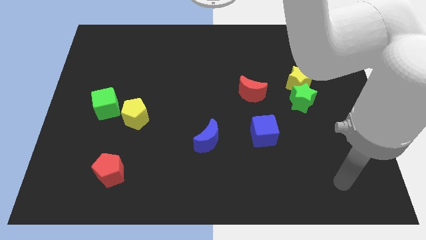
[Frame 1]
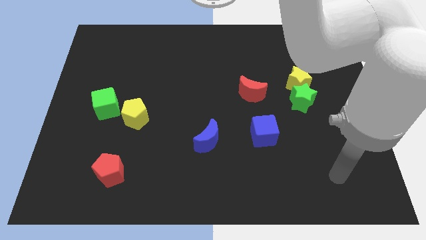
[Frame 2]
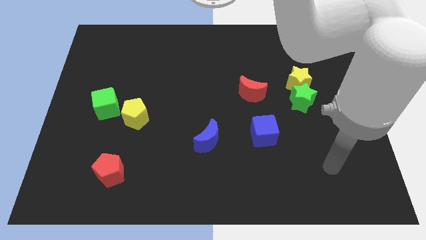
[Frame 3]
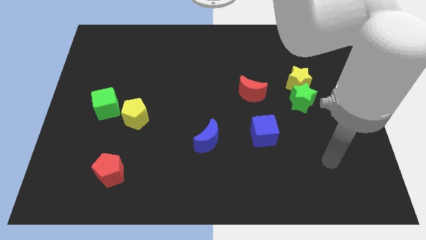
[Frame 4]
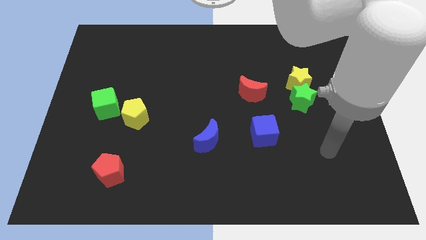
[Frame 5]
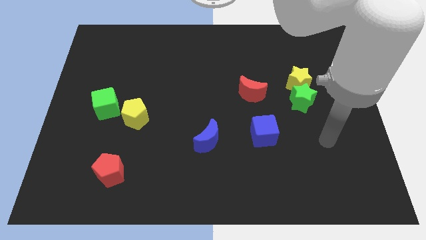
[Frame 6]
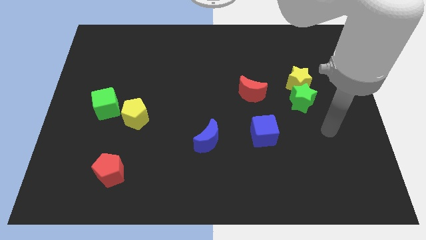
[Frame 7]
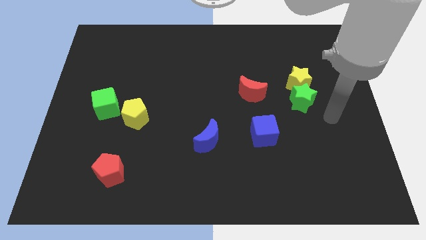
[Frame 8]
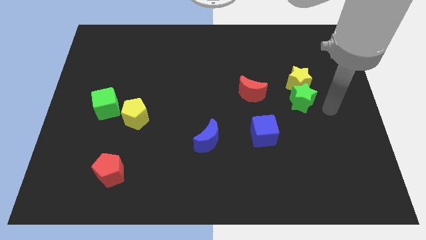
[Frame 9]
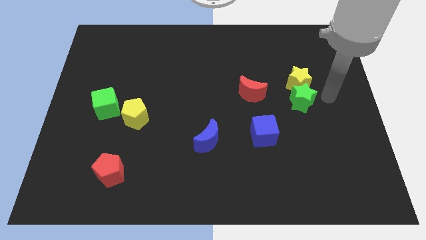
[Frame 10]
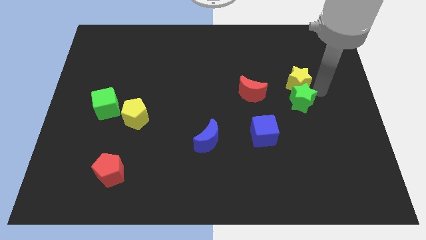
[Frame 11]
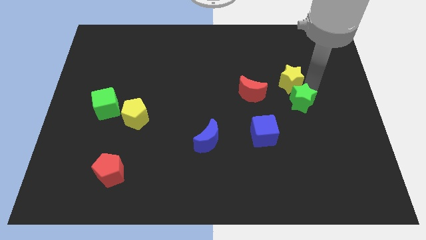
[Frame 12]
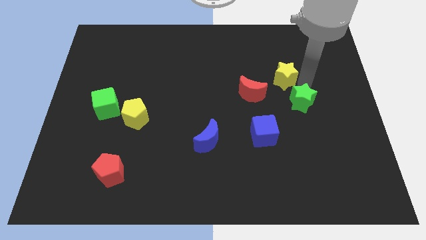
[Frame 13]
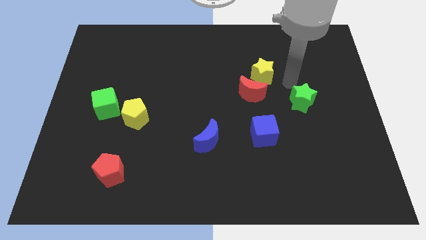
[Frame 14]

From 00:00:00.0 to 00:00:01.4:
move the green star away from the yellow star

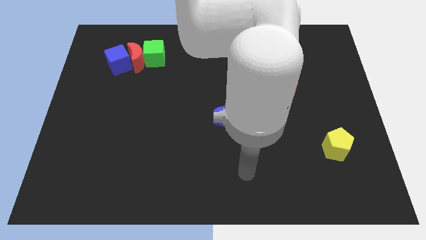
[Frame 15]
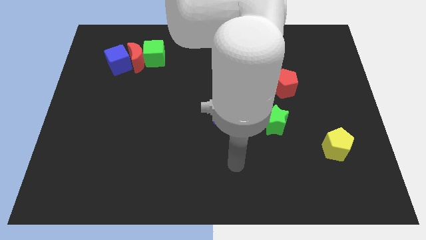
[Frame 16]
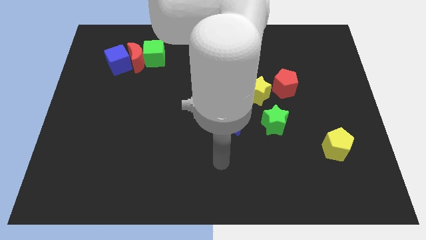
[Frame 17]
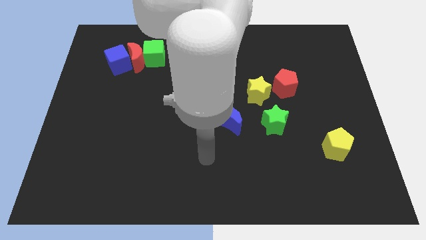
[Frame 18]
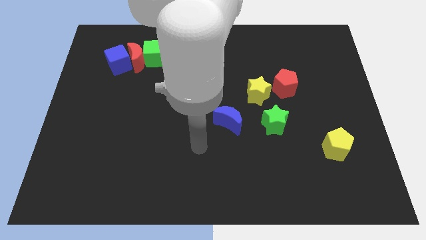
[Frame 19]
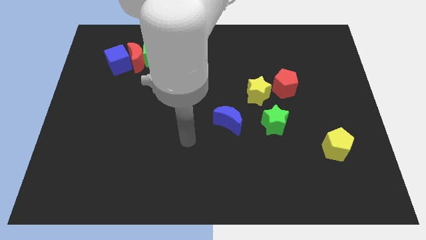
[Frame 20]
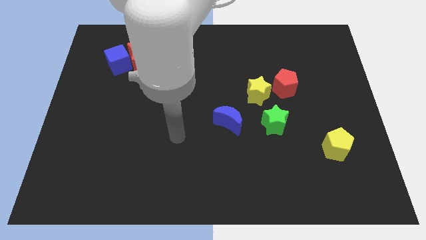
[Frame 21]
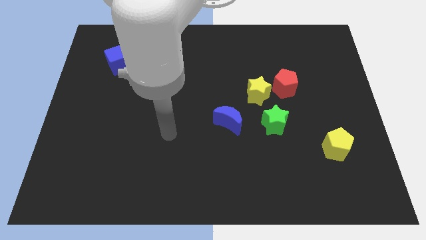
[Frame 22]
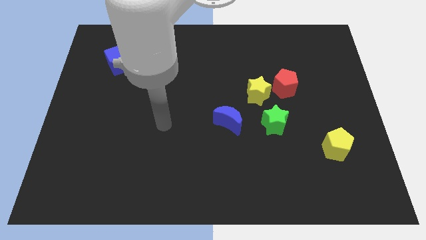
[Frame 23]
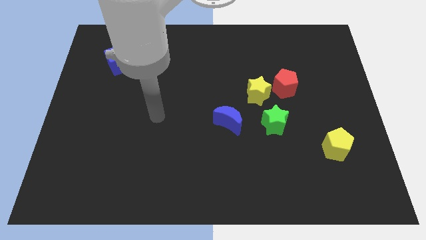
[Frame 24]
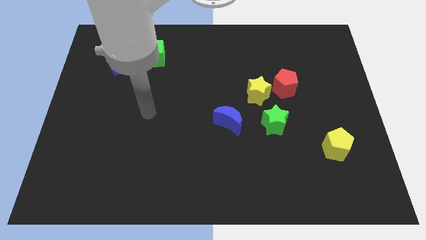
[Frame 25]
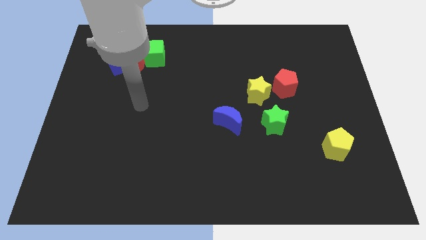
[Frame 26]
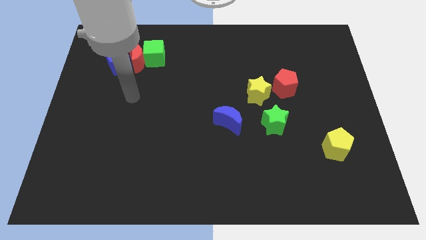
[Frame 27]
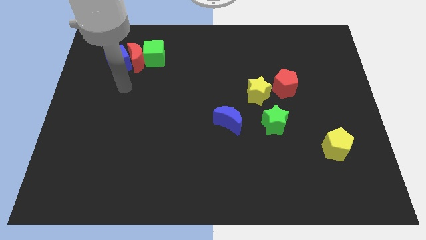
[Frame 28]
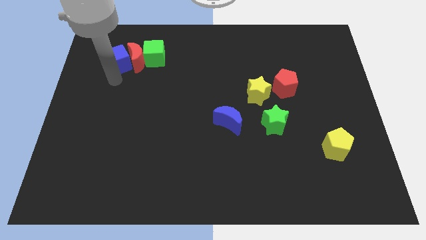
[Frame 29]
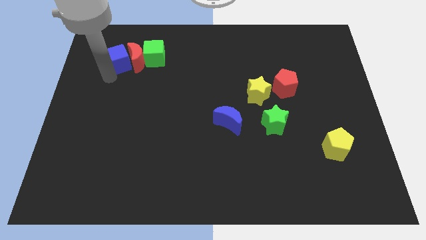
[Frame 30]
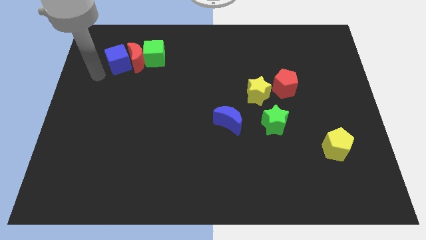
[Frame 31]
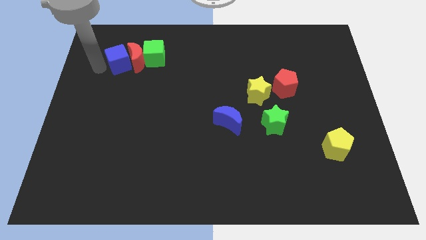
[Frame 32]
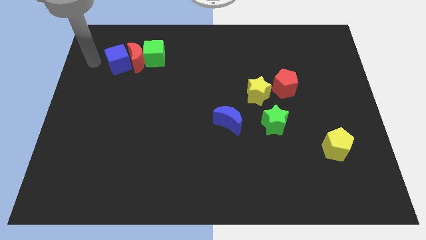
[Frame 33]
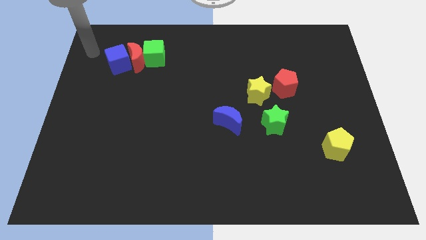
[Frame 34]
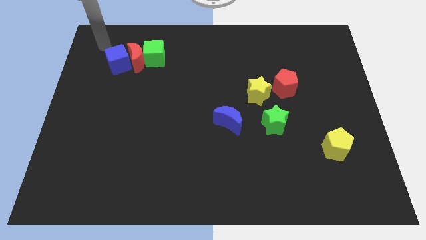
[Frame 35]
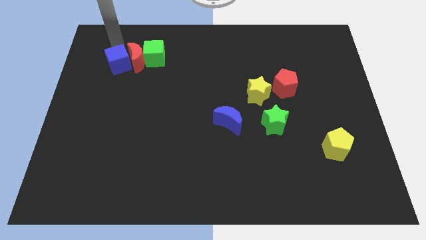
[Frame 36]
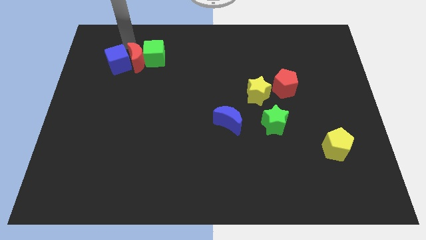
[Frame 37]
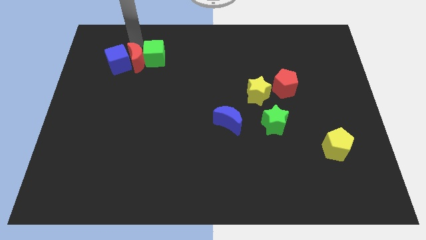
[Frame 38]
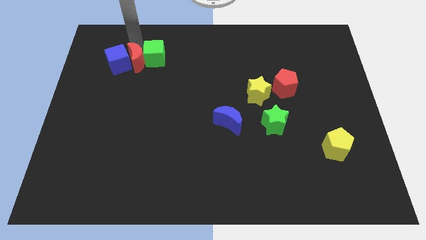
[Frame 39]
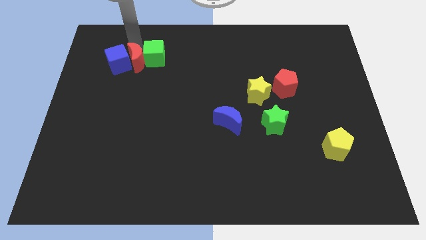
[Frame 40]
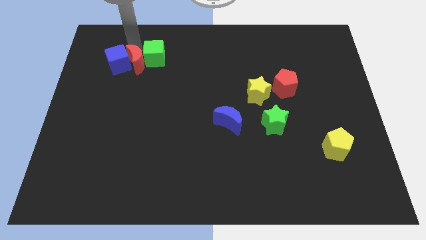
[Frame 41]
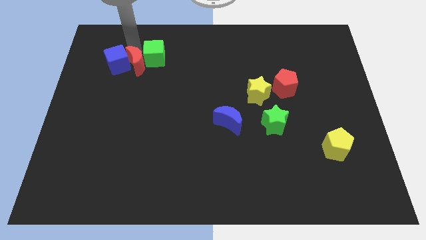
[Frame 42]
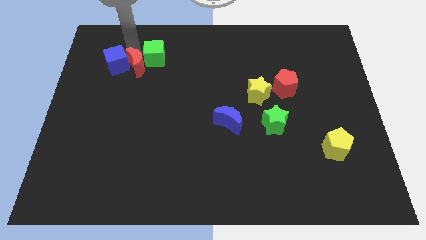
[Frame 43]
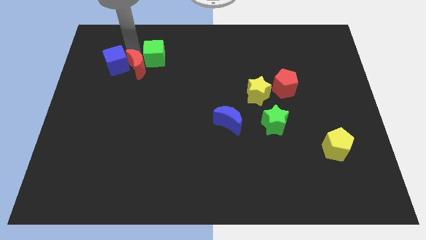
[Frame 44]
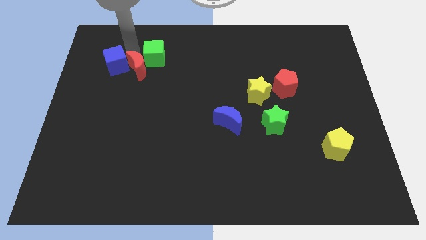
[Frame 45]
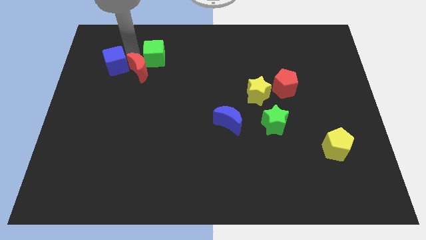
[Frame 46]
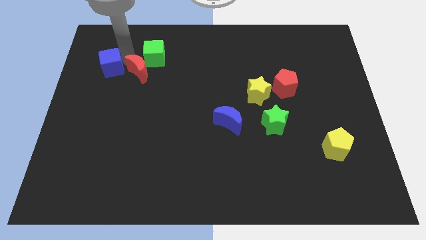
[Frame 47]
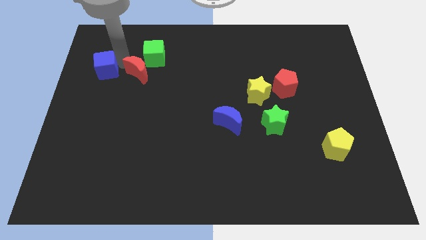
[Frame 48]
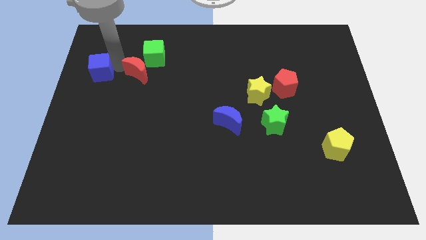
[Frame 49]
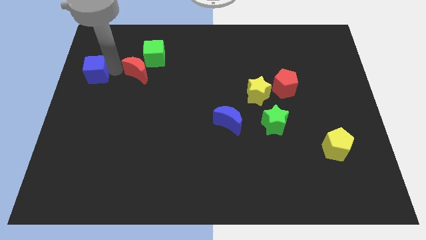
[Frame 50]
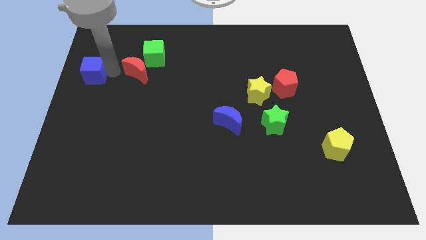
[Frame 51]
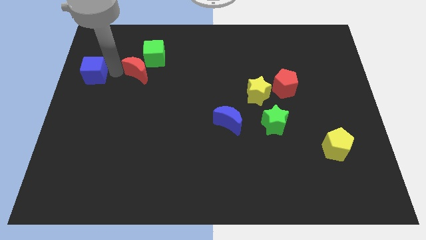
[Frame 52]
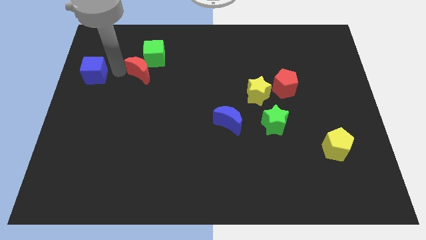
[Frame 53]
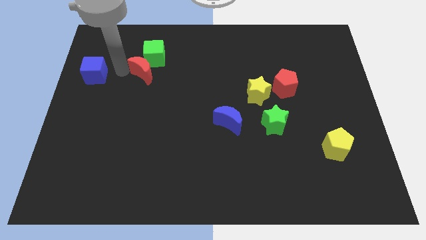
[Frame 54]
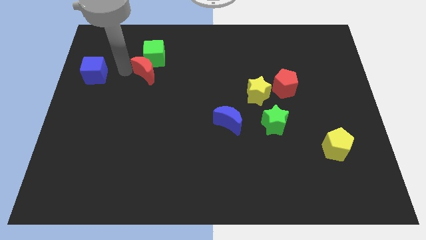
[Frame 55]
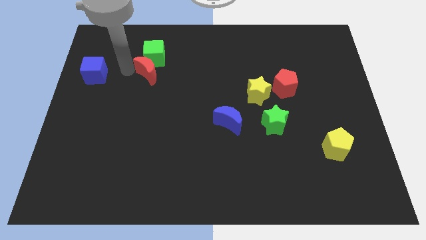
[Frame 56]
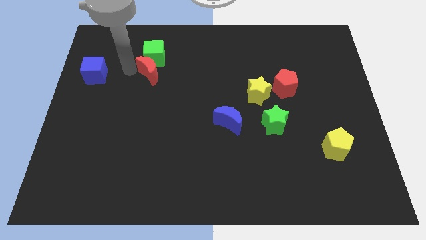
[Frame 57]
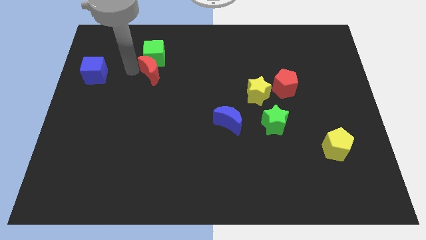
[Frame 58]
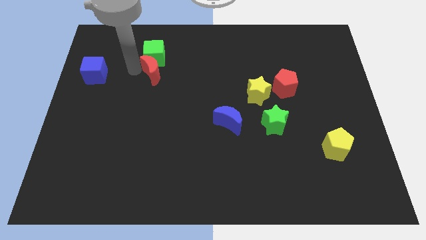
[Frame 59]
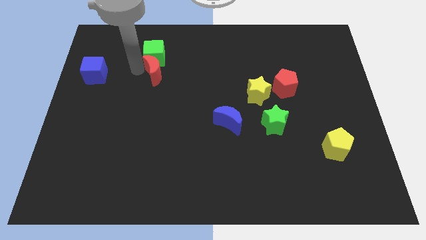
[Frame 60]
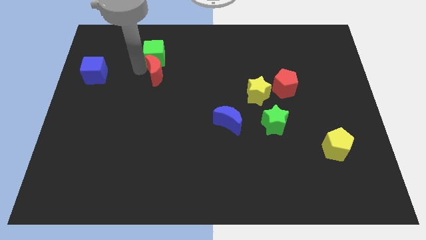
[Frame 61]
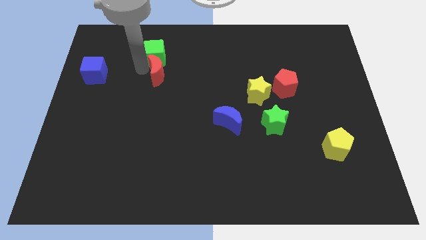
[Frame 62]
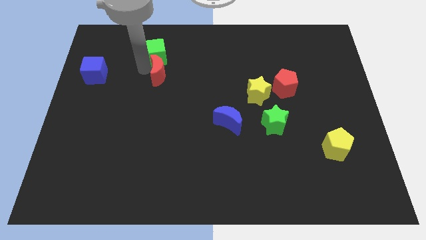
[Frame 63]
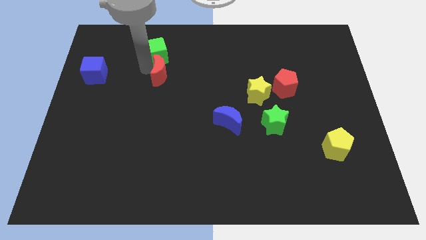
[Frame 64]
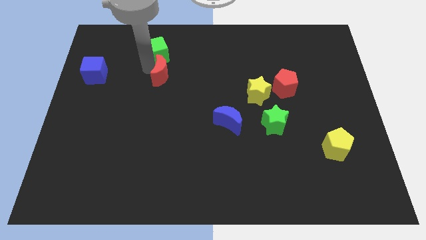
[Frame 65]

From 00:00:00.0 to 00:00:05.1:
pull the red moon apart from the green cube and blue cube

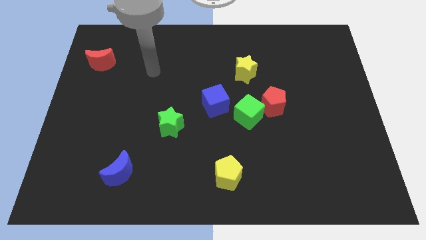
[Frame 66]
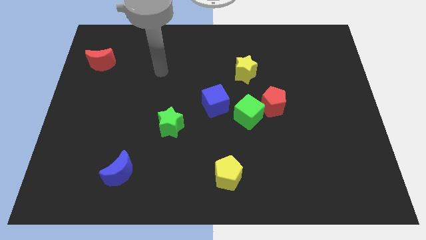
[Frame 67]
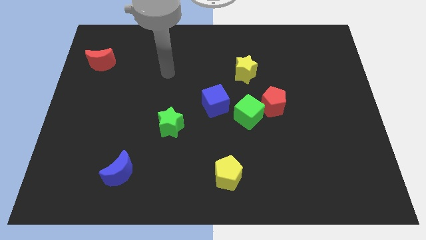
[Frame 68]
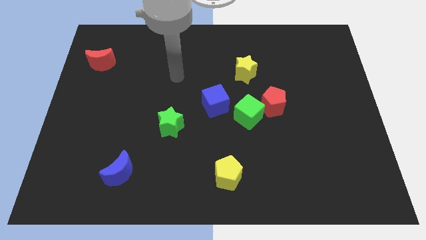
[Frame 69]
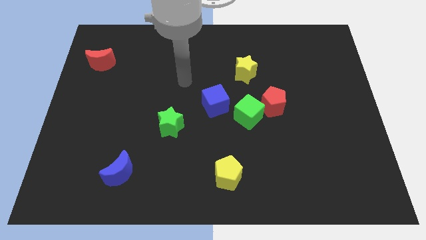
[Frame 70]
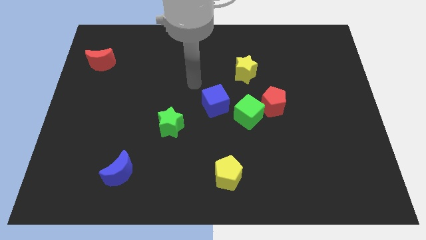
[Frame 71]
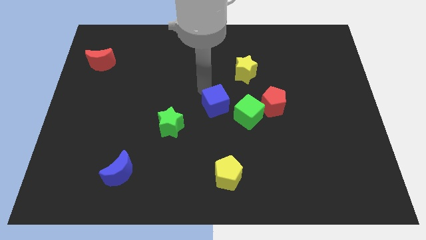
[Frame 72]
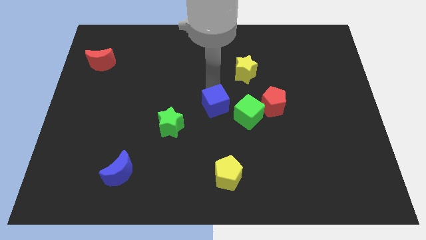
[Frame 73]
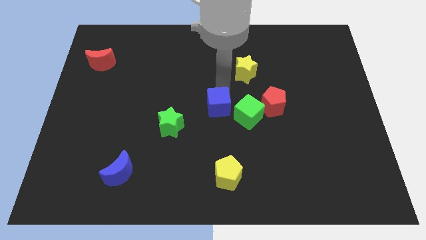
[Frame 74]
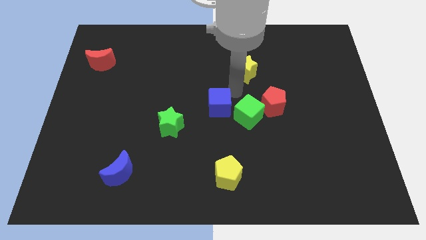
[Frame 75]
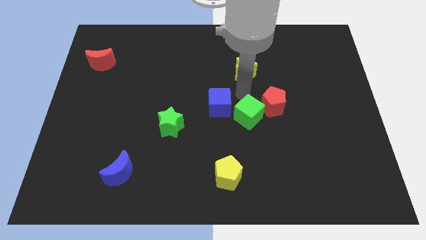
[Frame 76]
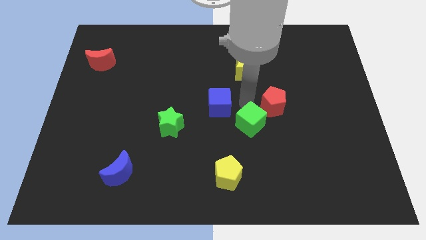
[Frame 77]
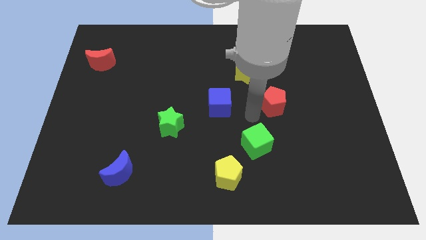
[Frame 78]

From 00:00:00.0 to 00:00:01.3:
move the red pentagon away from the green cube

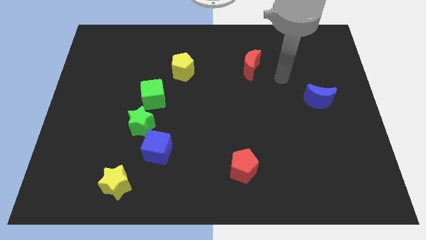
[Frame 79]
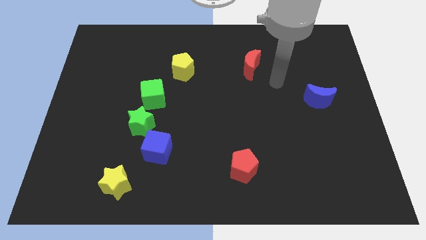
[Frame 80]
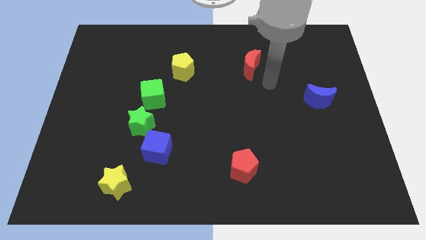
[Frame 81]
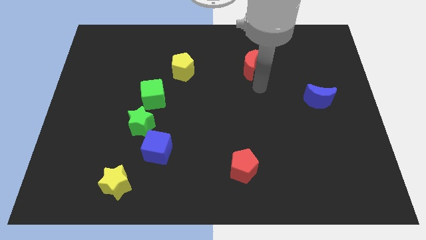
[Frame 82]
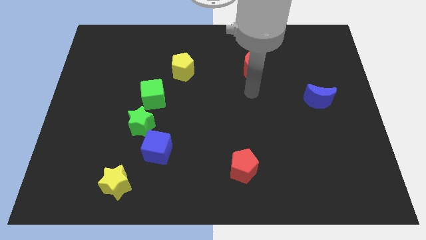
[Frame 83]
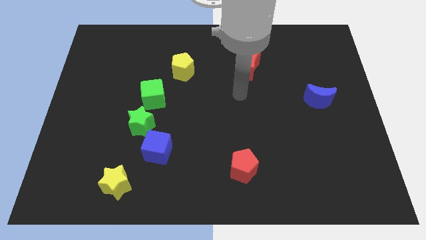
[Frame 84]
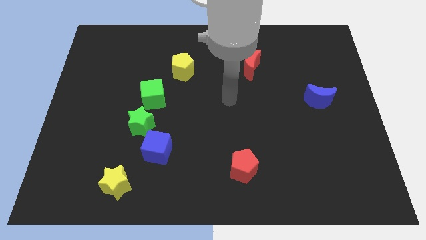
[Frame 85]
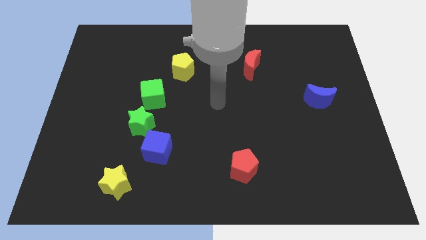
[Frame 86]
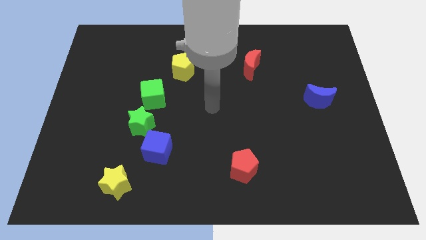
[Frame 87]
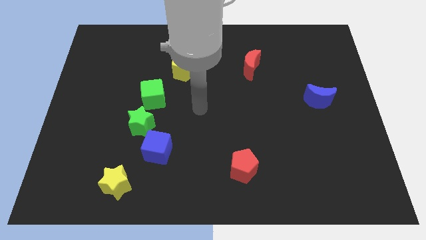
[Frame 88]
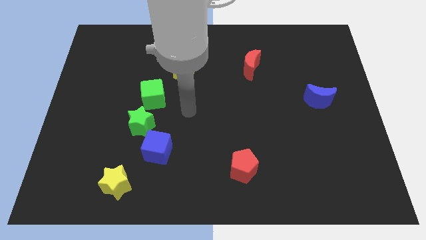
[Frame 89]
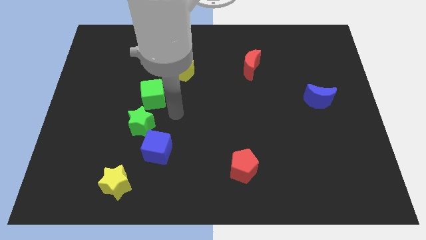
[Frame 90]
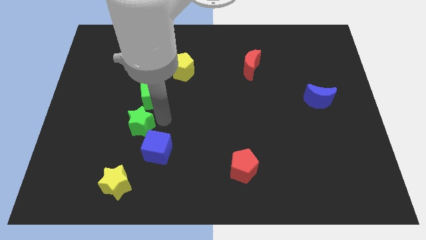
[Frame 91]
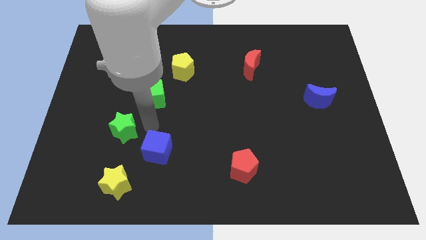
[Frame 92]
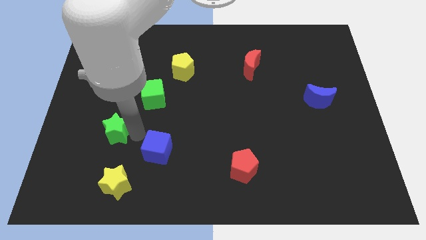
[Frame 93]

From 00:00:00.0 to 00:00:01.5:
move the blue cube away from the green star
